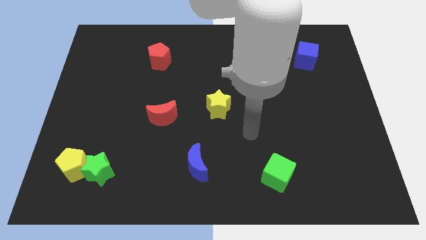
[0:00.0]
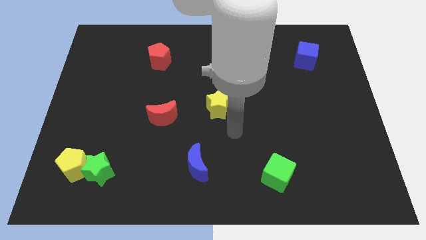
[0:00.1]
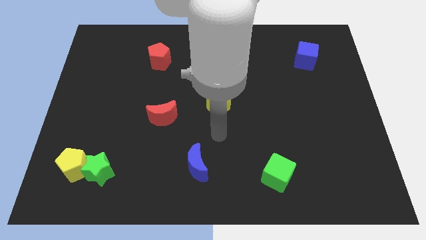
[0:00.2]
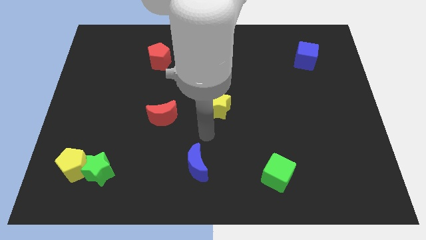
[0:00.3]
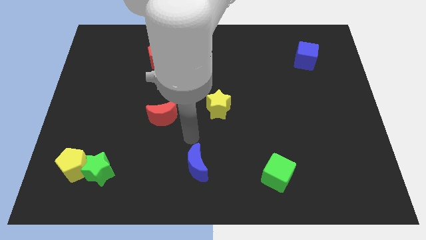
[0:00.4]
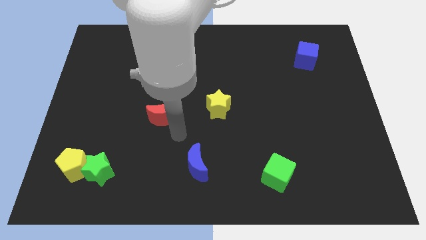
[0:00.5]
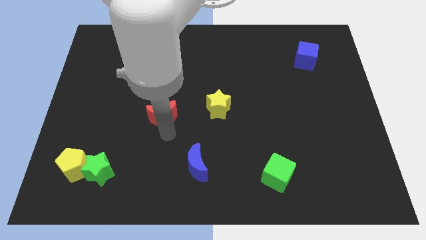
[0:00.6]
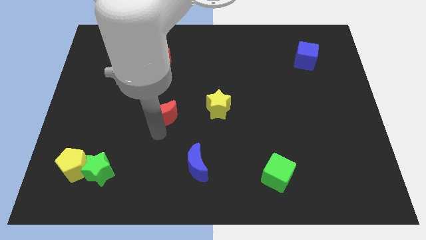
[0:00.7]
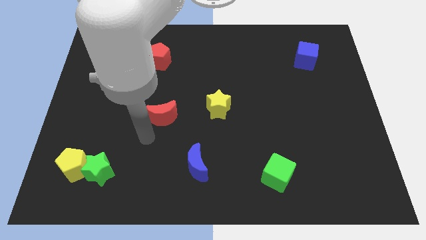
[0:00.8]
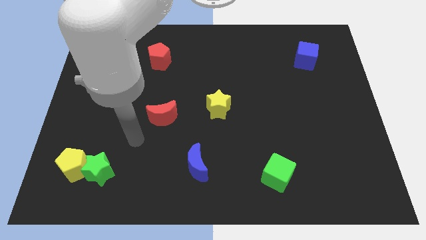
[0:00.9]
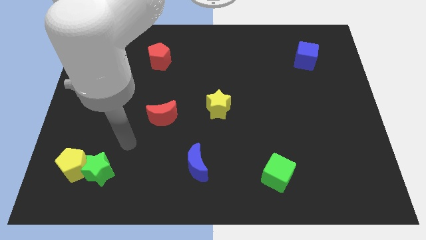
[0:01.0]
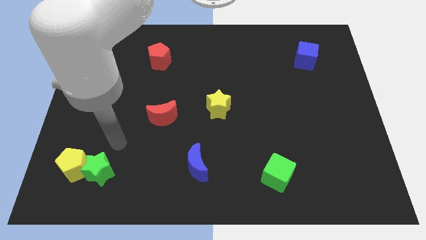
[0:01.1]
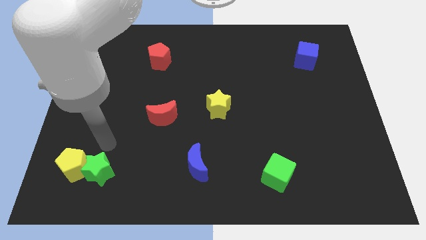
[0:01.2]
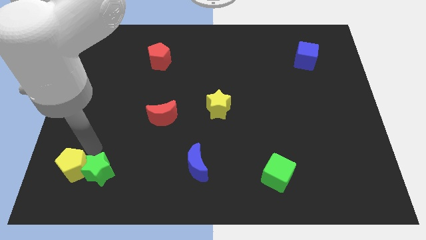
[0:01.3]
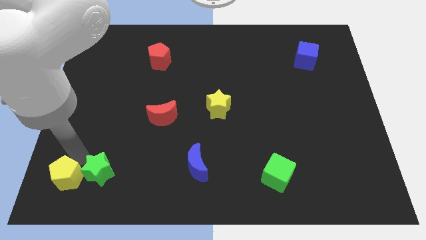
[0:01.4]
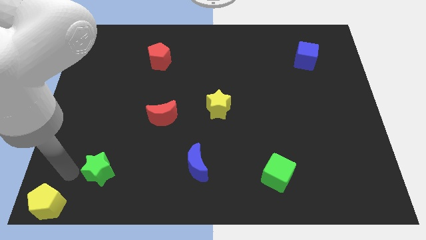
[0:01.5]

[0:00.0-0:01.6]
pull the green star apart from the yellow pentagon

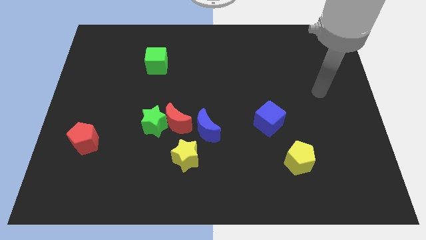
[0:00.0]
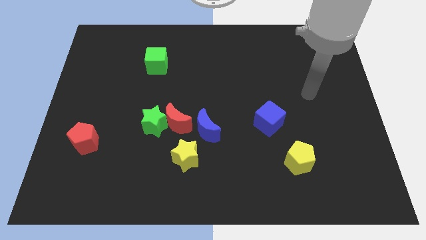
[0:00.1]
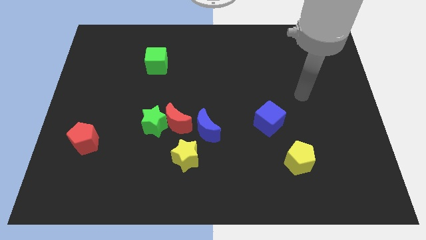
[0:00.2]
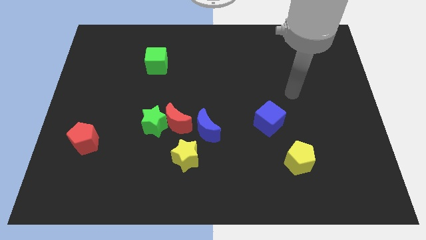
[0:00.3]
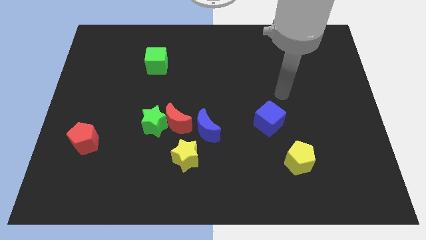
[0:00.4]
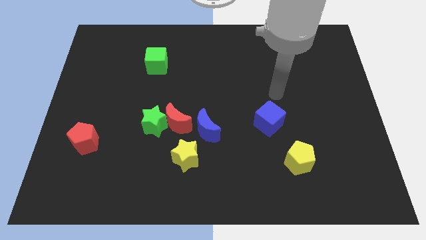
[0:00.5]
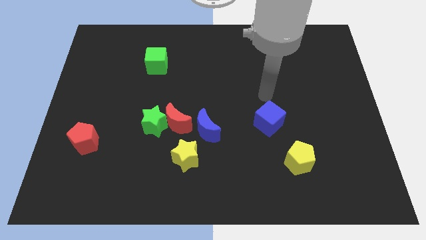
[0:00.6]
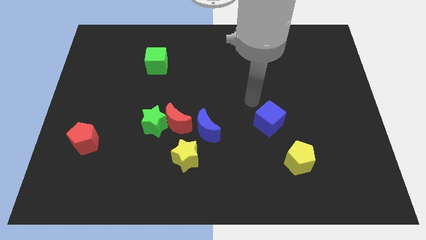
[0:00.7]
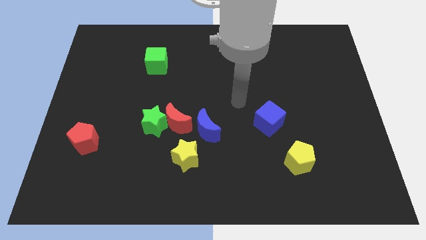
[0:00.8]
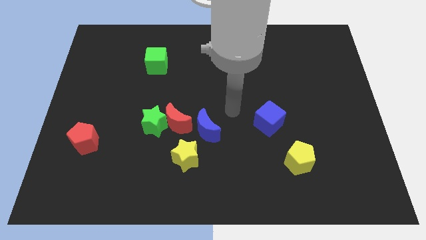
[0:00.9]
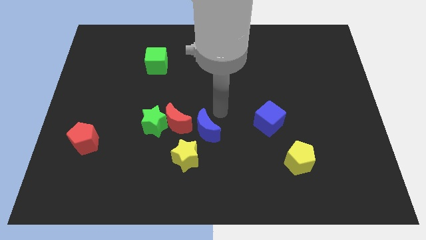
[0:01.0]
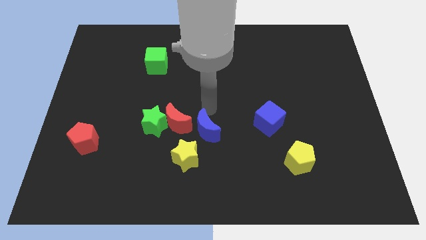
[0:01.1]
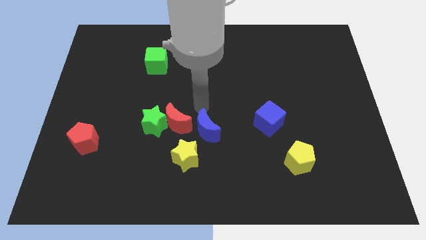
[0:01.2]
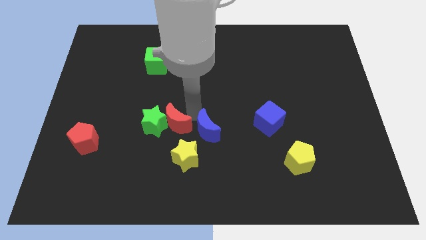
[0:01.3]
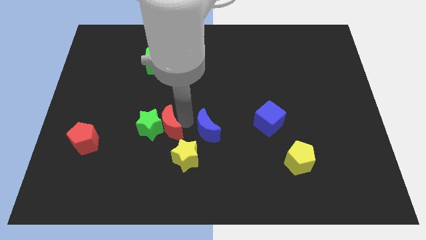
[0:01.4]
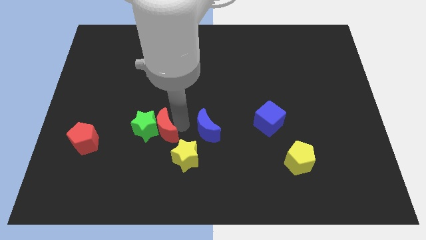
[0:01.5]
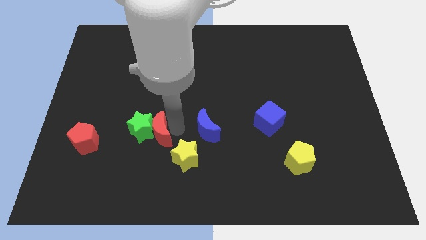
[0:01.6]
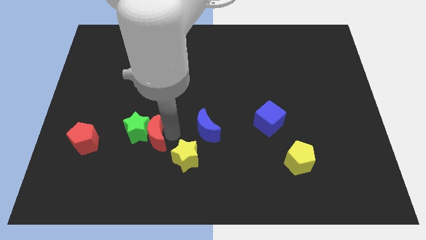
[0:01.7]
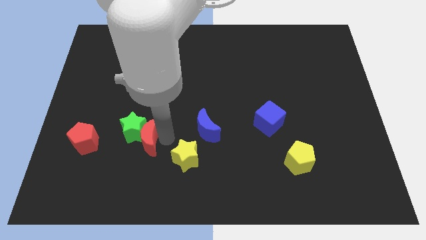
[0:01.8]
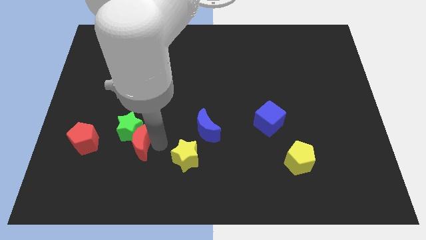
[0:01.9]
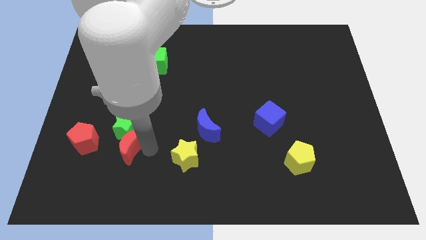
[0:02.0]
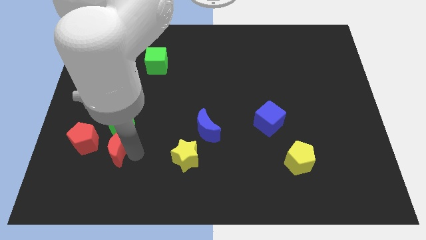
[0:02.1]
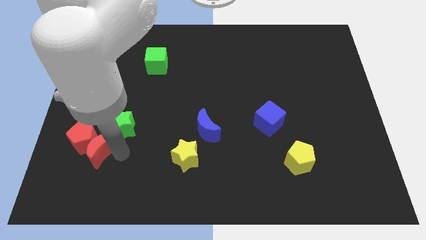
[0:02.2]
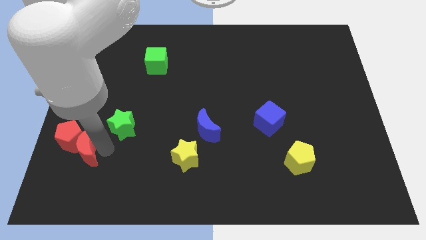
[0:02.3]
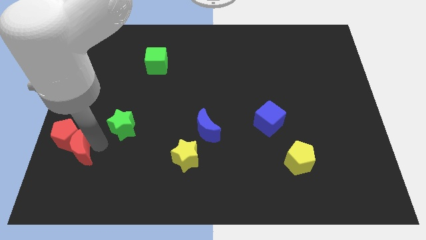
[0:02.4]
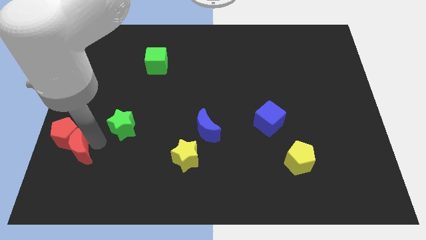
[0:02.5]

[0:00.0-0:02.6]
pull the green star apart from the red moon

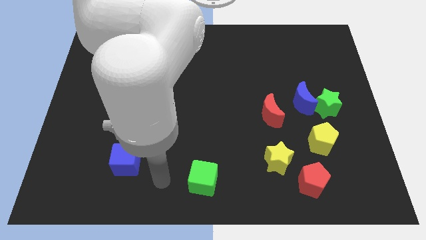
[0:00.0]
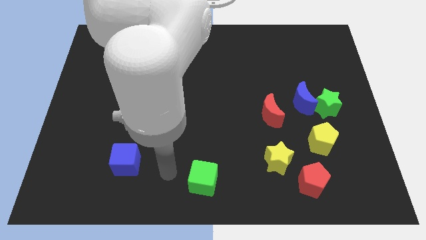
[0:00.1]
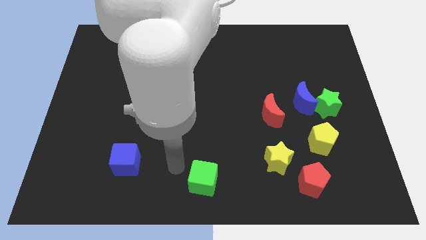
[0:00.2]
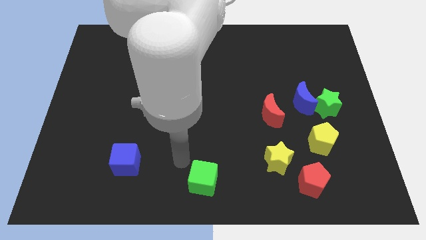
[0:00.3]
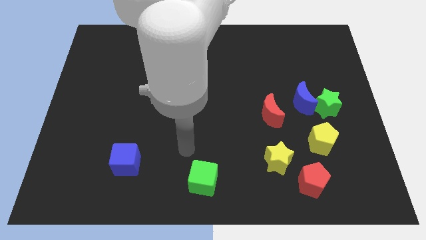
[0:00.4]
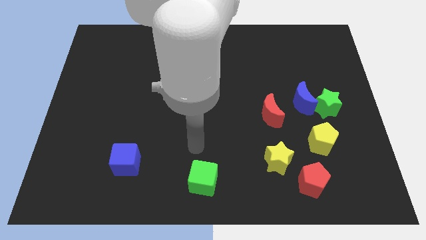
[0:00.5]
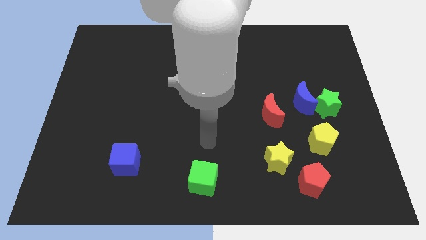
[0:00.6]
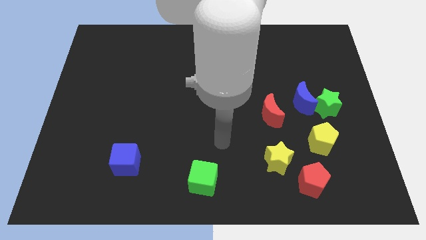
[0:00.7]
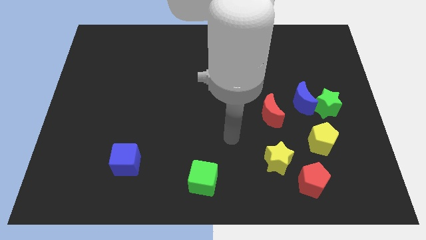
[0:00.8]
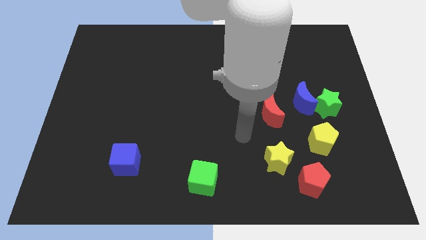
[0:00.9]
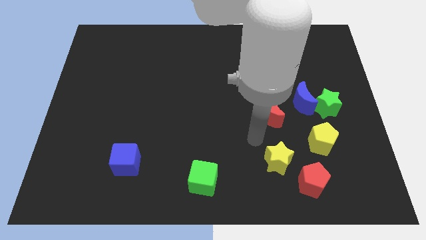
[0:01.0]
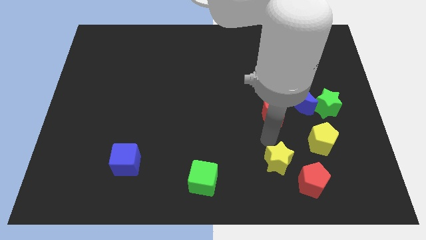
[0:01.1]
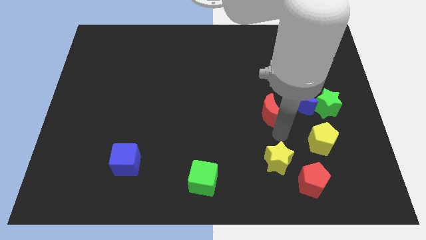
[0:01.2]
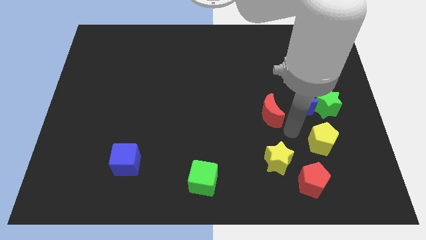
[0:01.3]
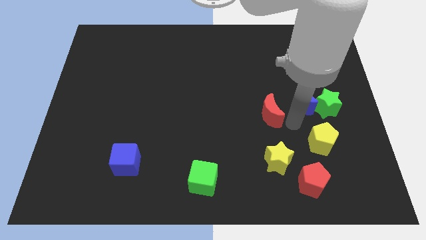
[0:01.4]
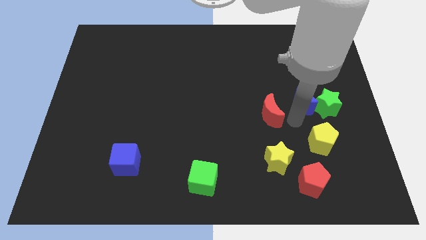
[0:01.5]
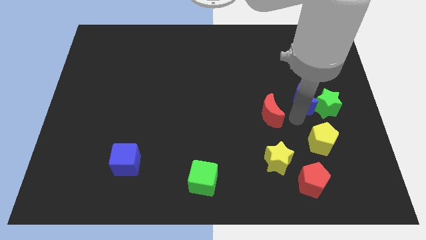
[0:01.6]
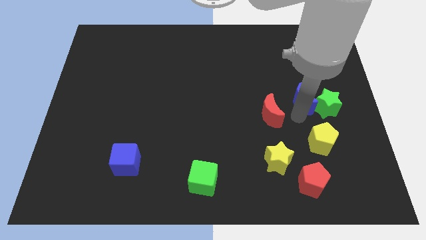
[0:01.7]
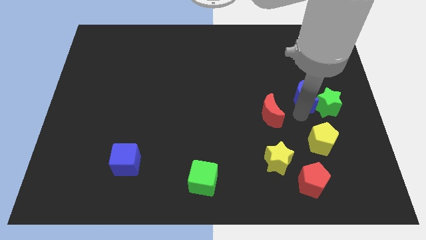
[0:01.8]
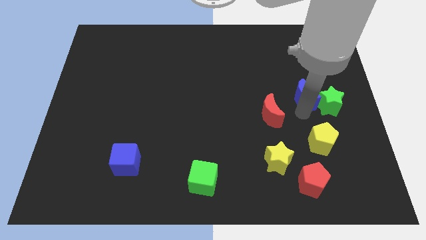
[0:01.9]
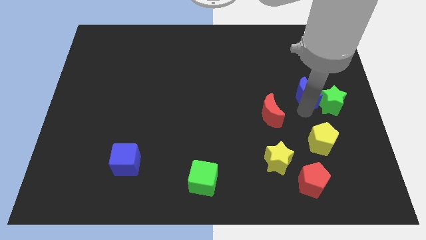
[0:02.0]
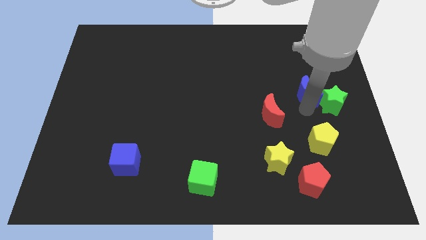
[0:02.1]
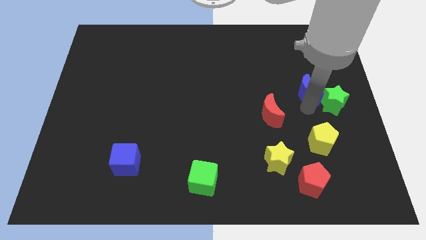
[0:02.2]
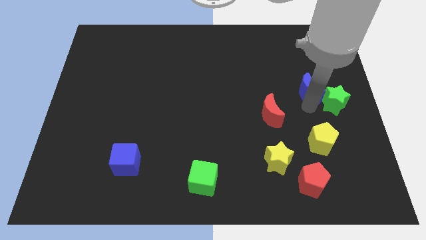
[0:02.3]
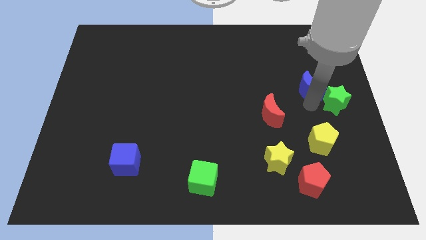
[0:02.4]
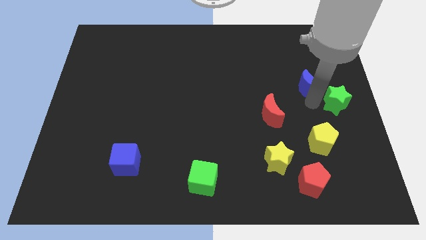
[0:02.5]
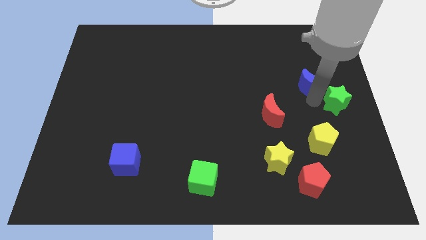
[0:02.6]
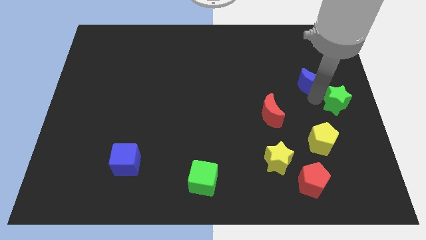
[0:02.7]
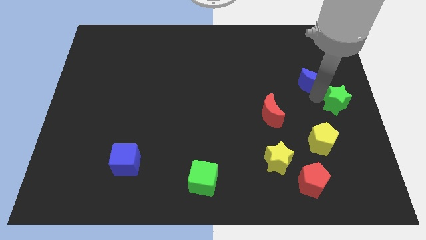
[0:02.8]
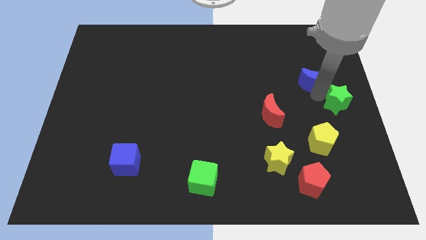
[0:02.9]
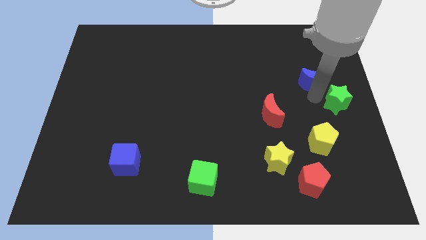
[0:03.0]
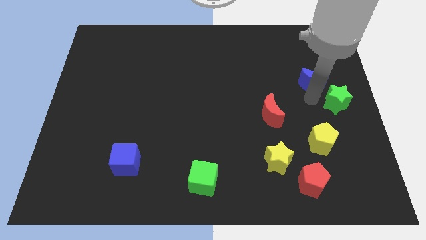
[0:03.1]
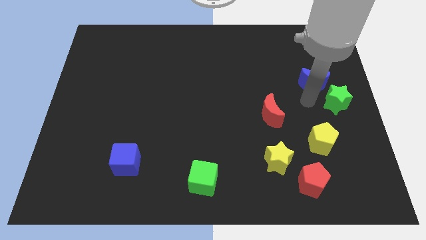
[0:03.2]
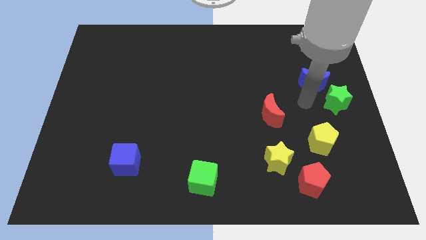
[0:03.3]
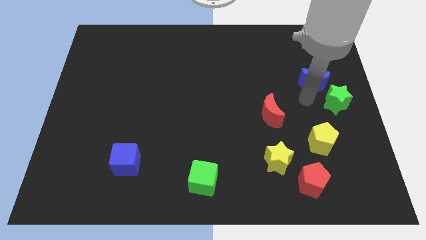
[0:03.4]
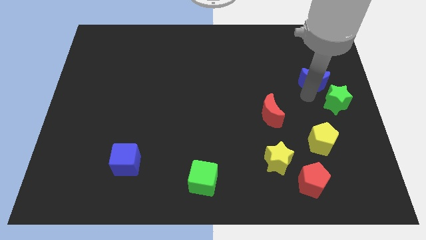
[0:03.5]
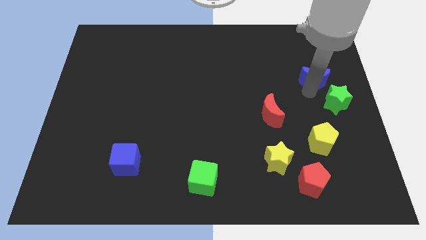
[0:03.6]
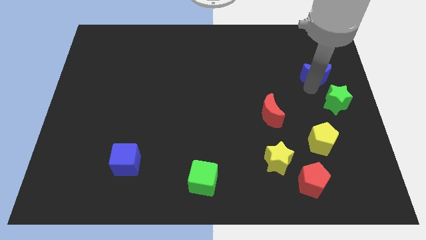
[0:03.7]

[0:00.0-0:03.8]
move the blue moon away from the green star and red moon

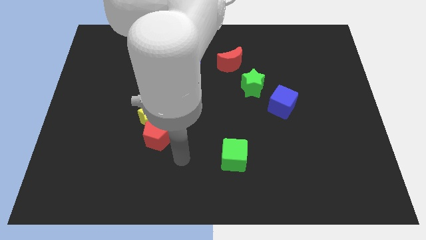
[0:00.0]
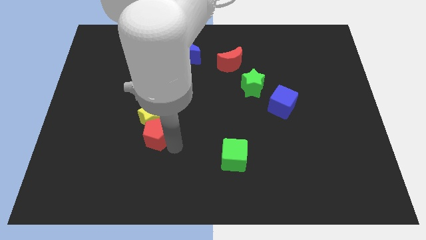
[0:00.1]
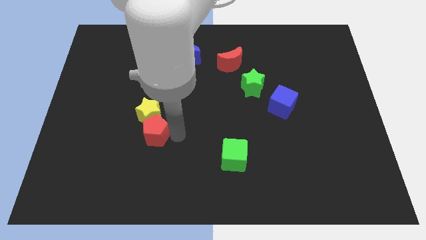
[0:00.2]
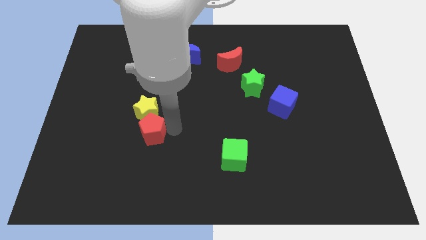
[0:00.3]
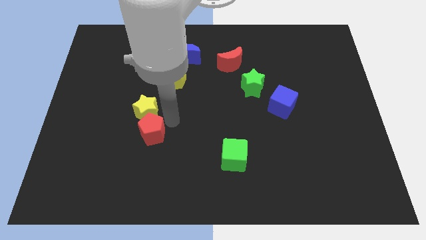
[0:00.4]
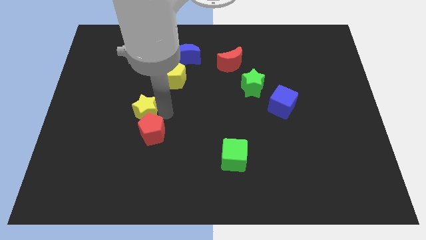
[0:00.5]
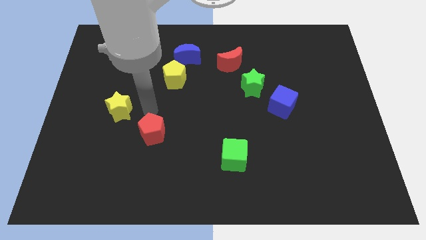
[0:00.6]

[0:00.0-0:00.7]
pull the red pentagon apart from the yellow star

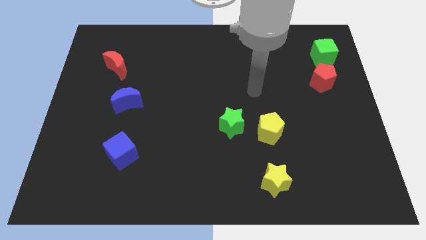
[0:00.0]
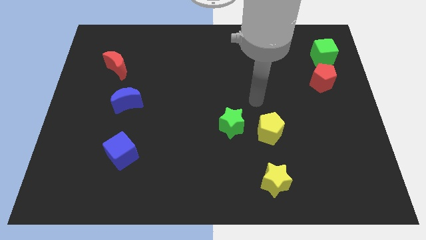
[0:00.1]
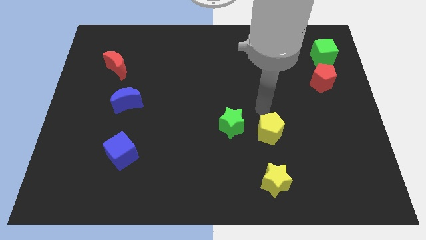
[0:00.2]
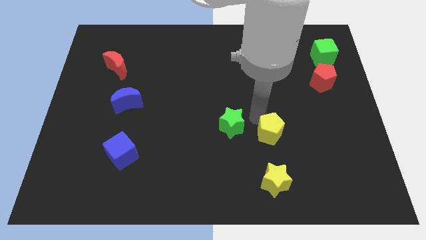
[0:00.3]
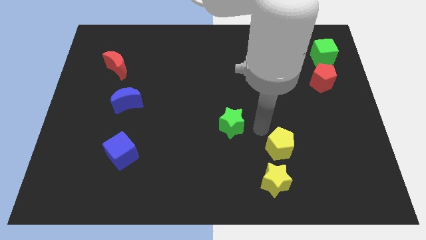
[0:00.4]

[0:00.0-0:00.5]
separate the green star from the yellow pentagon
